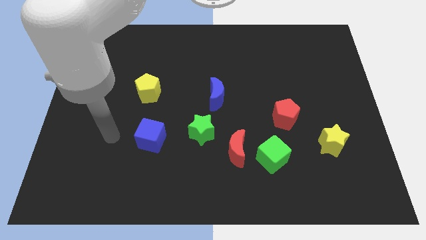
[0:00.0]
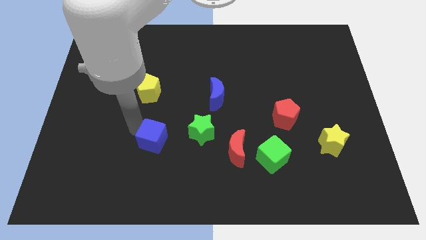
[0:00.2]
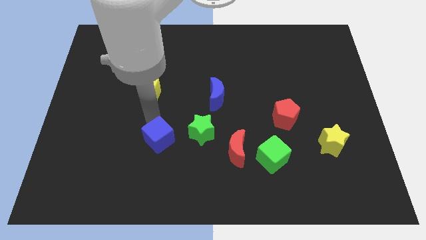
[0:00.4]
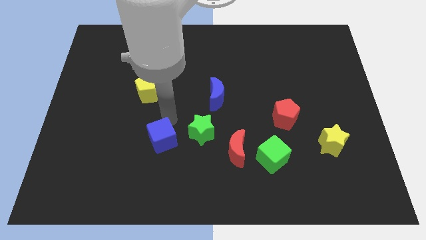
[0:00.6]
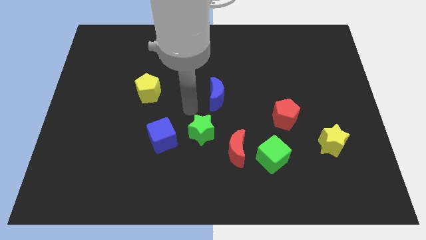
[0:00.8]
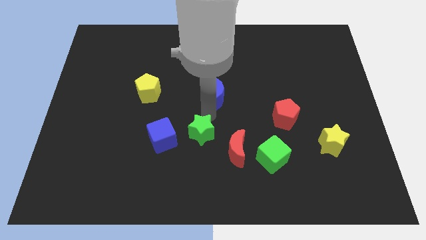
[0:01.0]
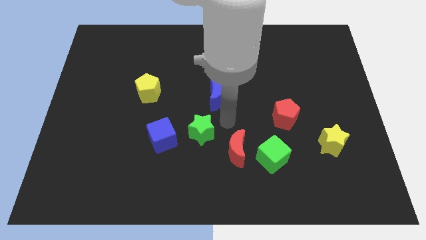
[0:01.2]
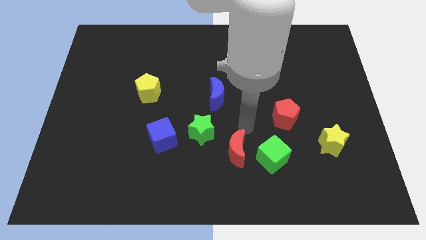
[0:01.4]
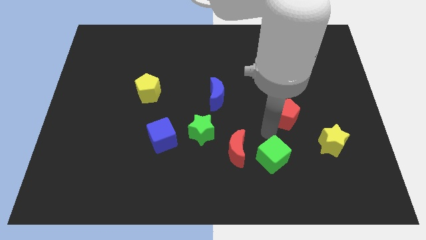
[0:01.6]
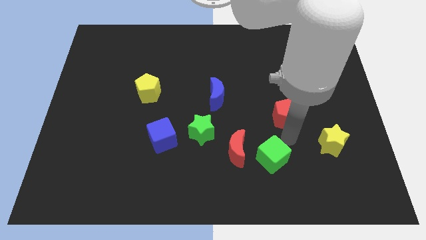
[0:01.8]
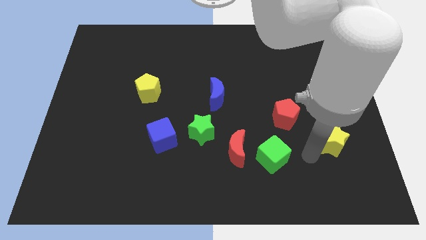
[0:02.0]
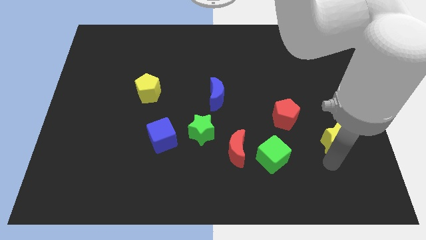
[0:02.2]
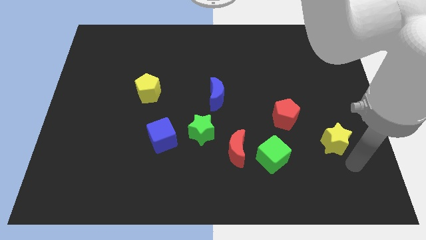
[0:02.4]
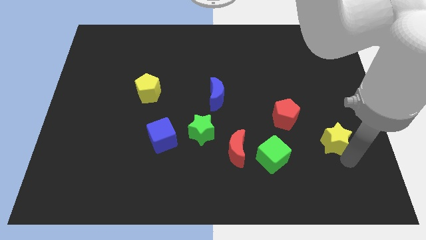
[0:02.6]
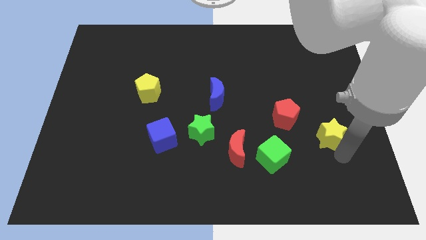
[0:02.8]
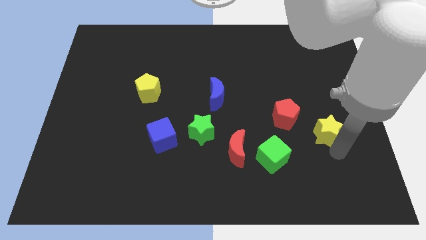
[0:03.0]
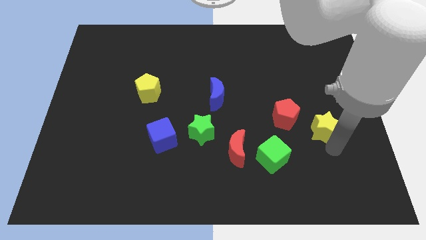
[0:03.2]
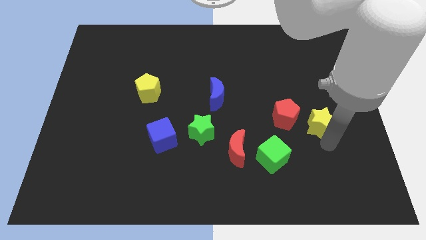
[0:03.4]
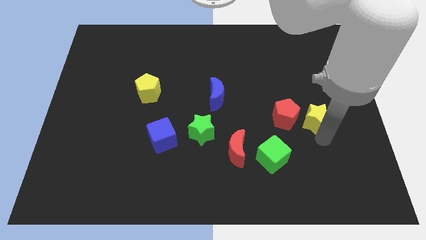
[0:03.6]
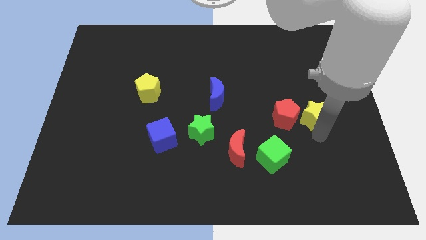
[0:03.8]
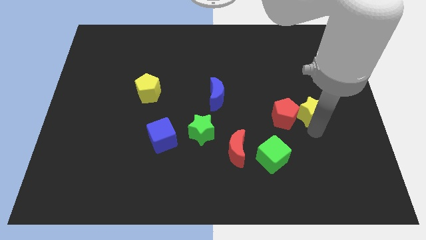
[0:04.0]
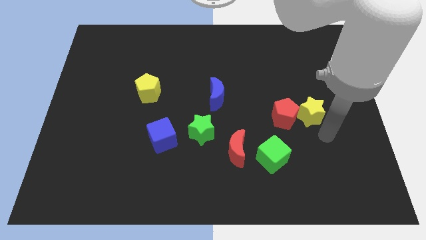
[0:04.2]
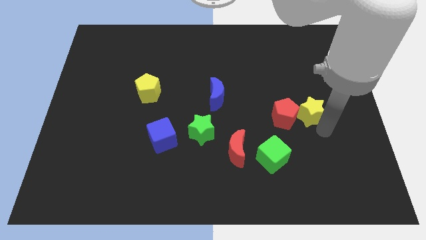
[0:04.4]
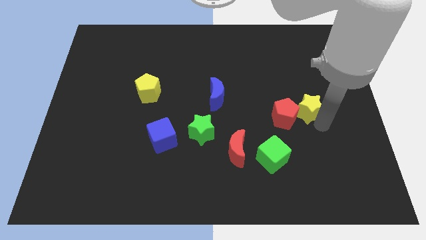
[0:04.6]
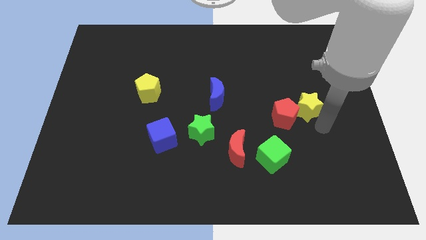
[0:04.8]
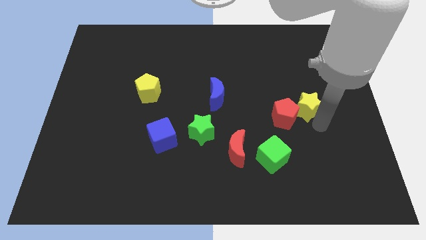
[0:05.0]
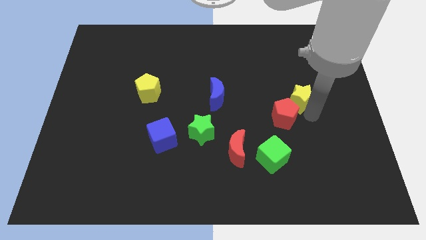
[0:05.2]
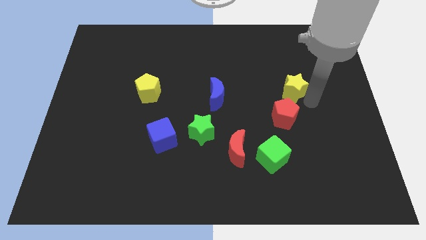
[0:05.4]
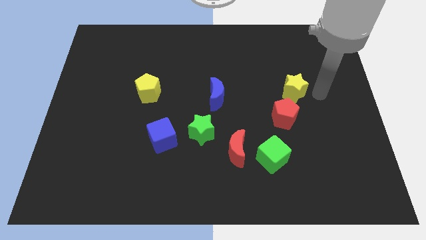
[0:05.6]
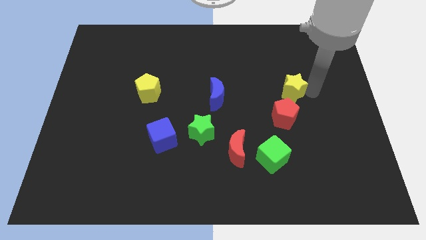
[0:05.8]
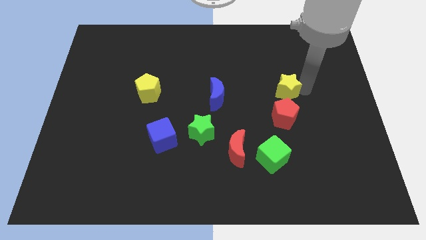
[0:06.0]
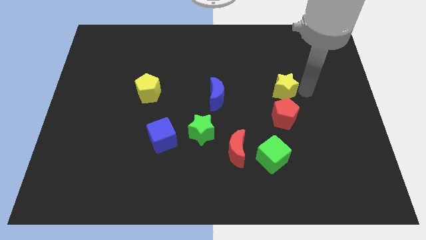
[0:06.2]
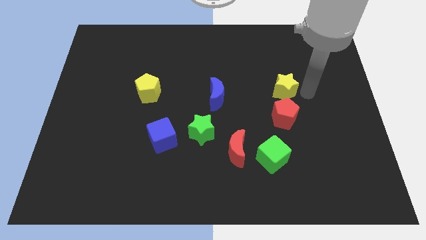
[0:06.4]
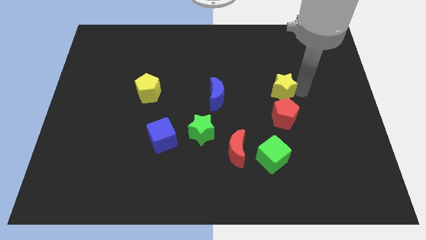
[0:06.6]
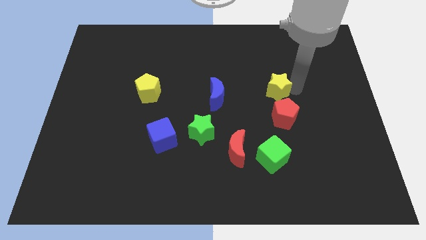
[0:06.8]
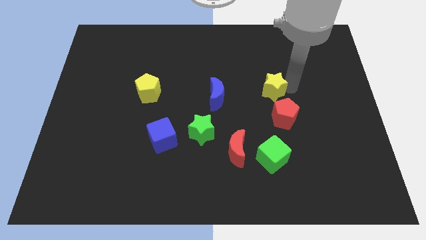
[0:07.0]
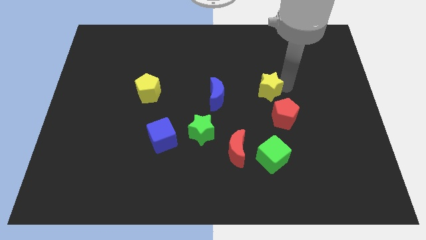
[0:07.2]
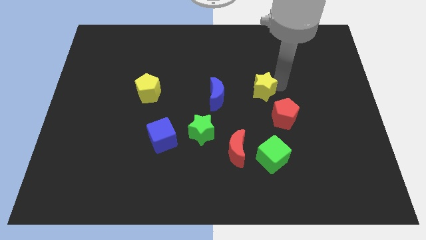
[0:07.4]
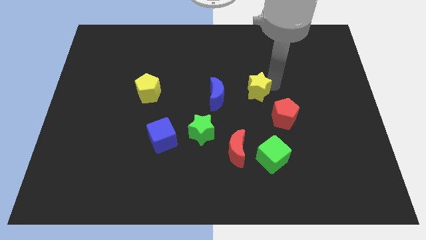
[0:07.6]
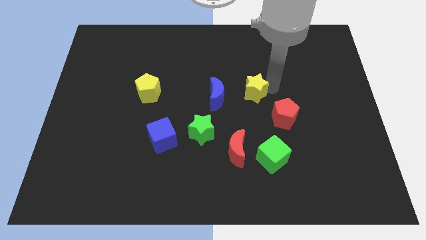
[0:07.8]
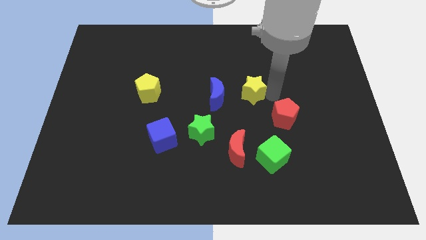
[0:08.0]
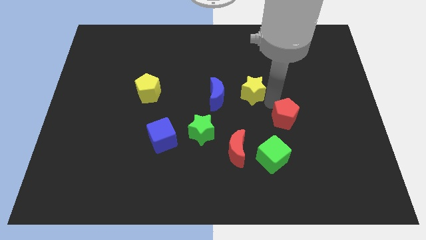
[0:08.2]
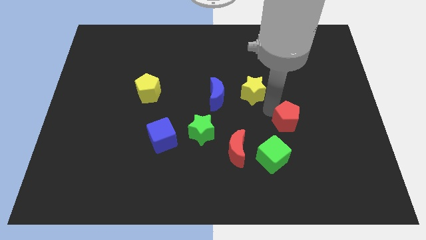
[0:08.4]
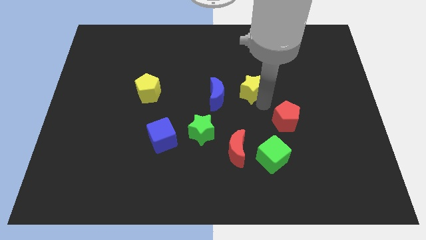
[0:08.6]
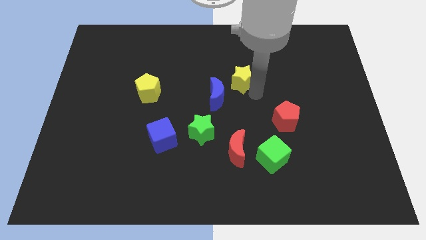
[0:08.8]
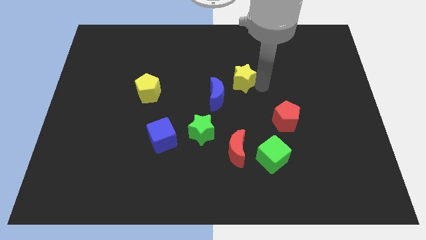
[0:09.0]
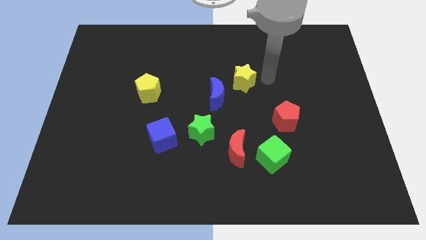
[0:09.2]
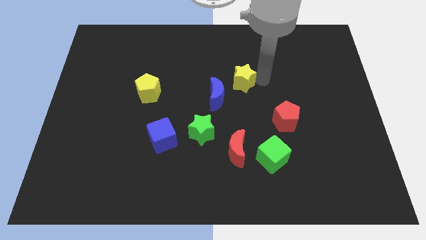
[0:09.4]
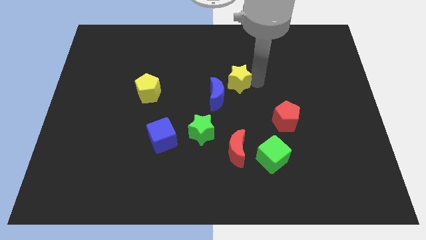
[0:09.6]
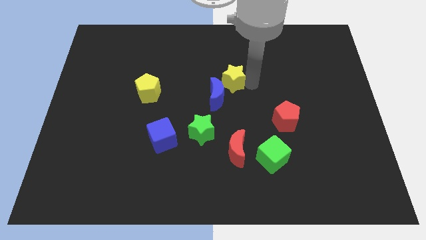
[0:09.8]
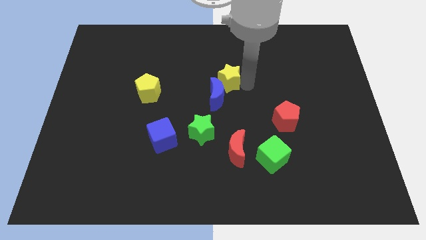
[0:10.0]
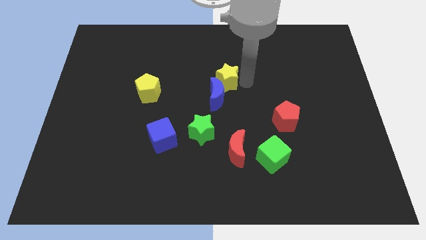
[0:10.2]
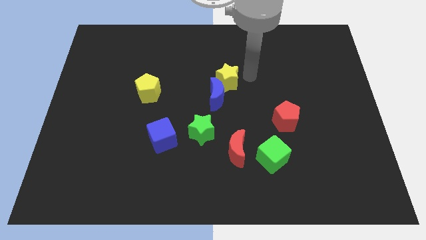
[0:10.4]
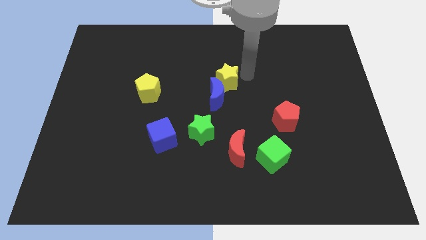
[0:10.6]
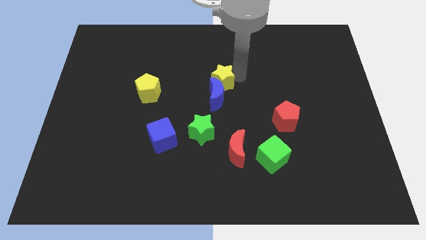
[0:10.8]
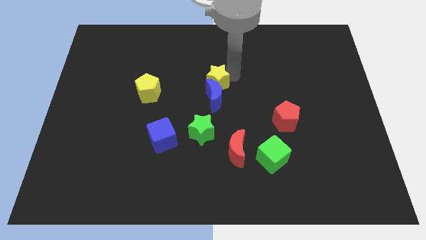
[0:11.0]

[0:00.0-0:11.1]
move the yellow star to the top side of the green star

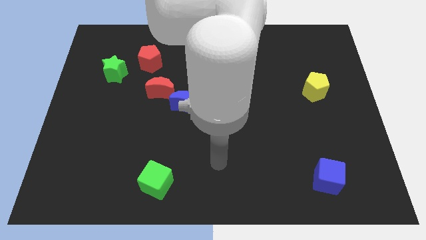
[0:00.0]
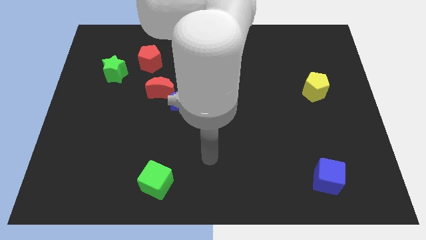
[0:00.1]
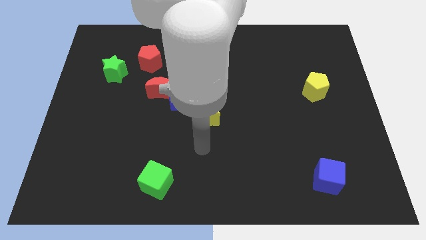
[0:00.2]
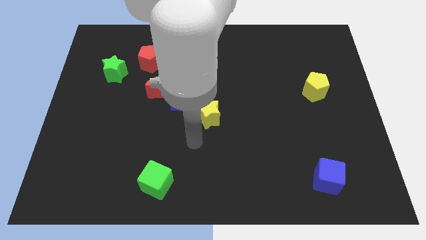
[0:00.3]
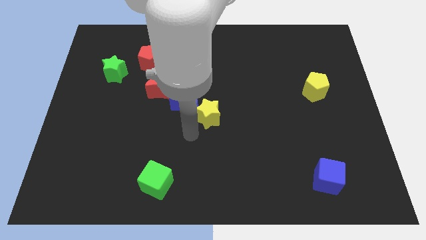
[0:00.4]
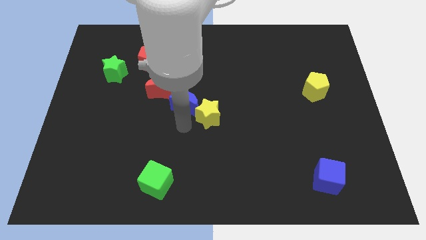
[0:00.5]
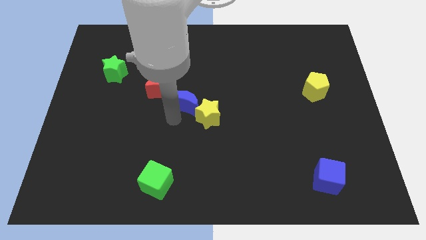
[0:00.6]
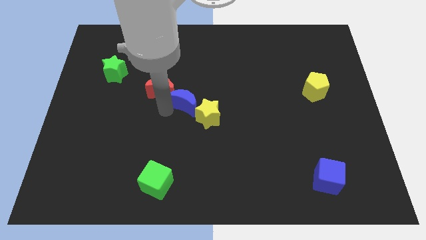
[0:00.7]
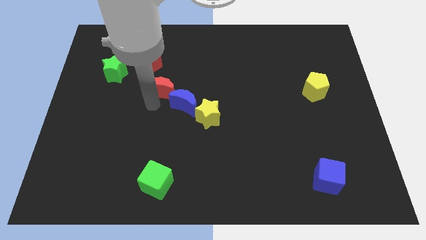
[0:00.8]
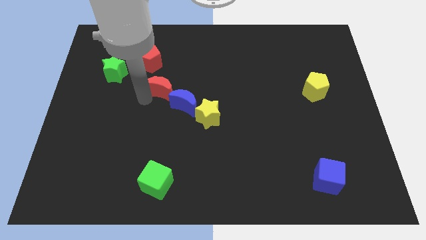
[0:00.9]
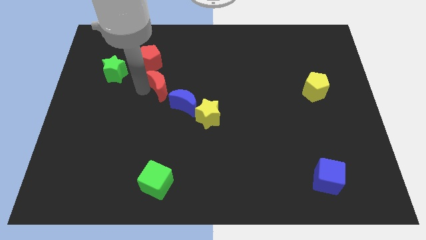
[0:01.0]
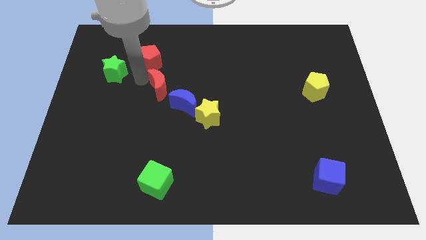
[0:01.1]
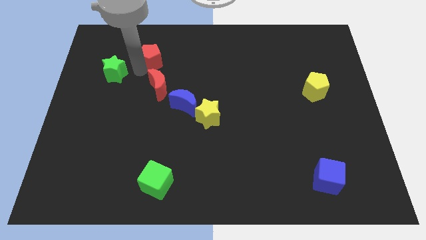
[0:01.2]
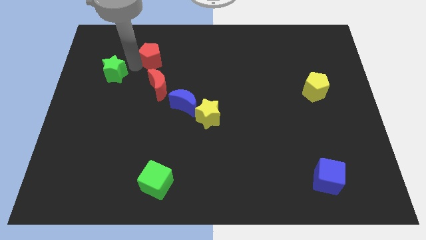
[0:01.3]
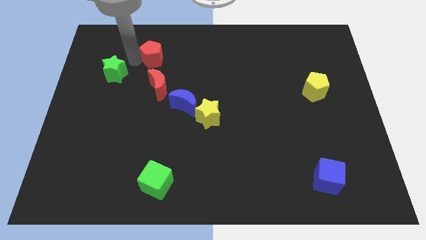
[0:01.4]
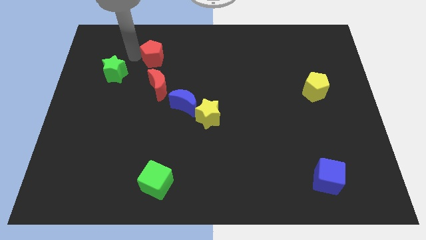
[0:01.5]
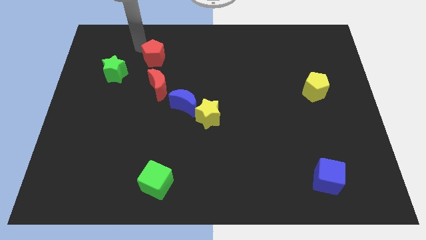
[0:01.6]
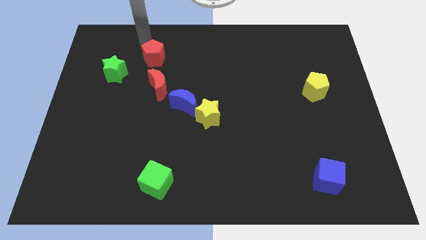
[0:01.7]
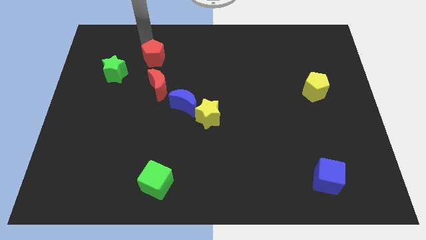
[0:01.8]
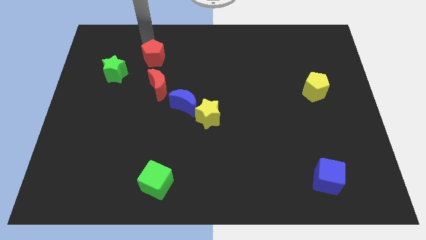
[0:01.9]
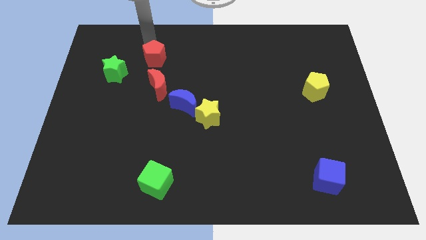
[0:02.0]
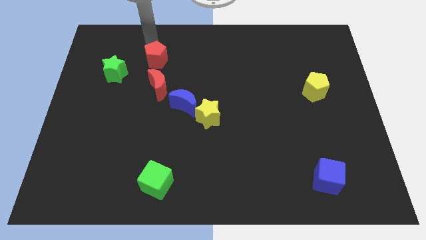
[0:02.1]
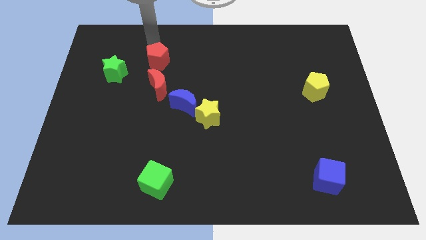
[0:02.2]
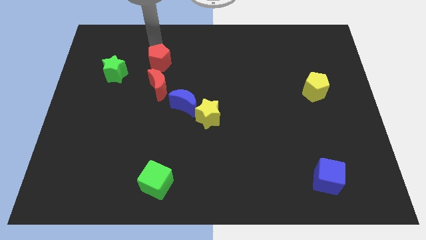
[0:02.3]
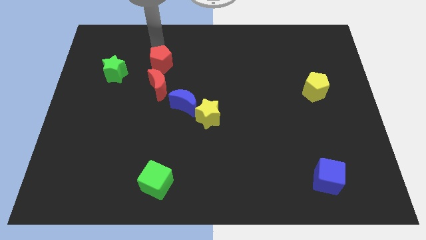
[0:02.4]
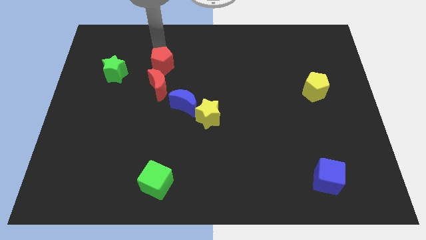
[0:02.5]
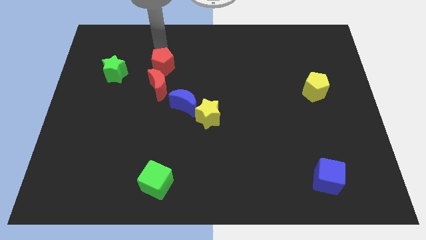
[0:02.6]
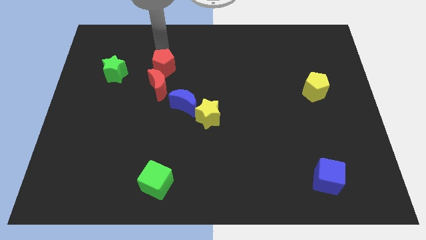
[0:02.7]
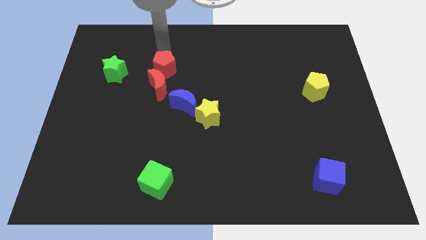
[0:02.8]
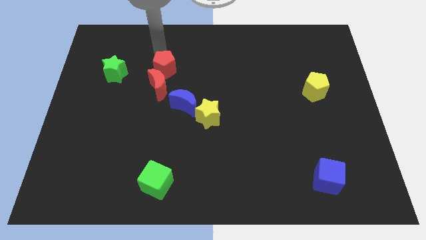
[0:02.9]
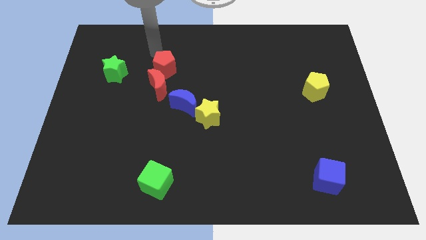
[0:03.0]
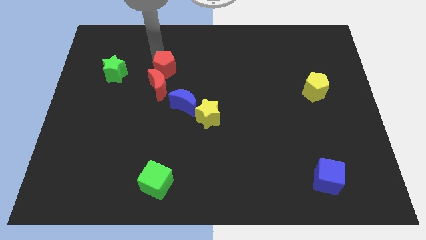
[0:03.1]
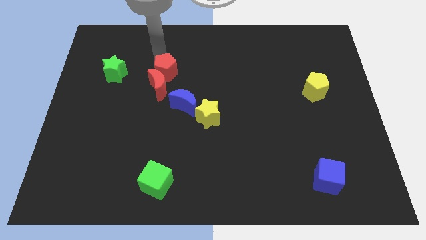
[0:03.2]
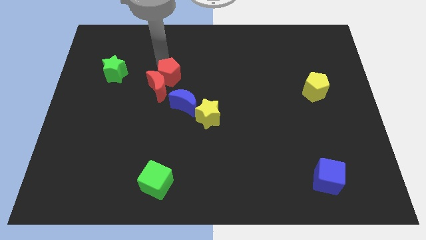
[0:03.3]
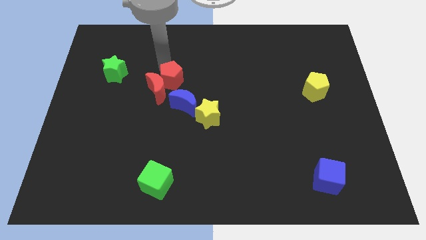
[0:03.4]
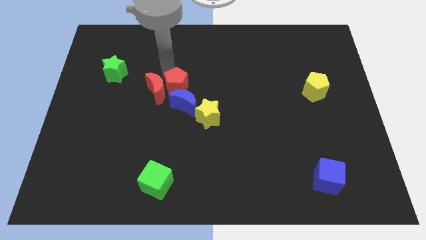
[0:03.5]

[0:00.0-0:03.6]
put the red pentagon diagonally up and to the left of the yellow star
